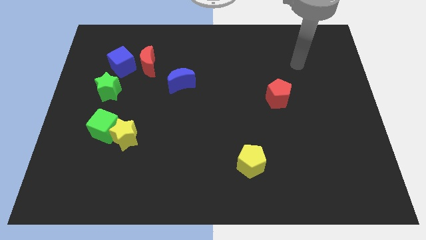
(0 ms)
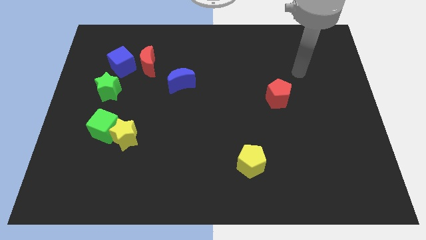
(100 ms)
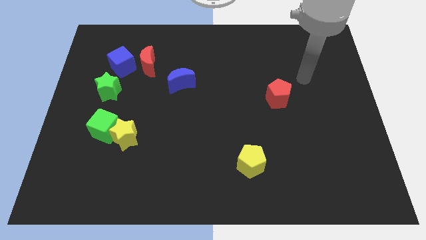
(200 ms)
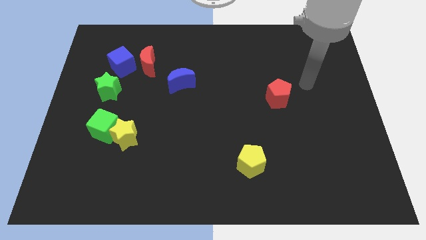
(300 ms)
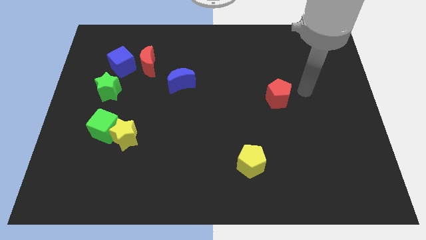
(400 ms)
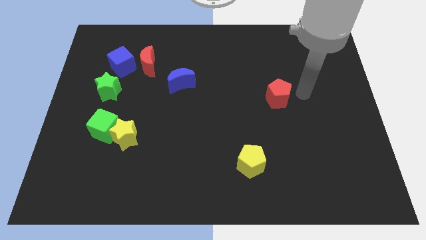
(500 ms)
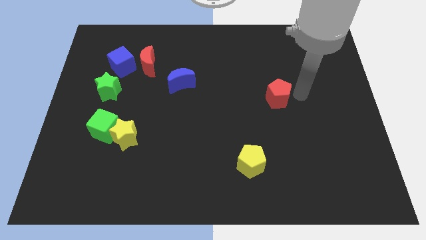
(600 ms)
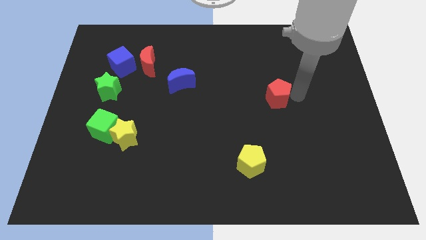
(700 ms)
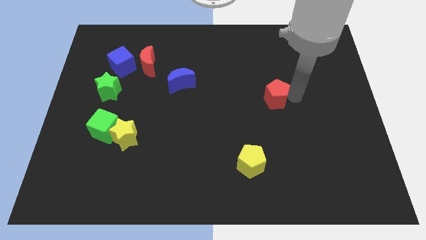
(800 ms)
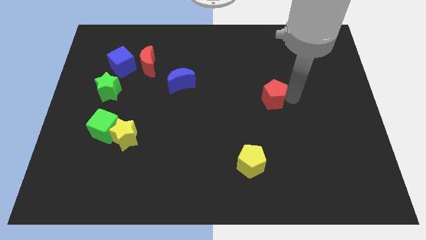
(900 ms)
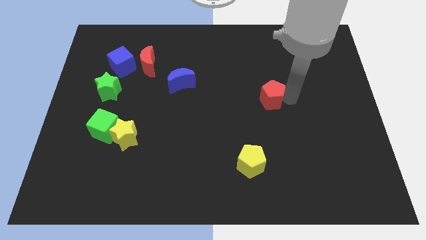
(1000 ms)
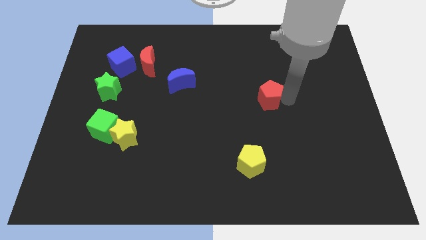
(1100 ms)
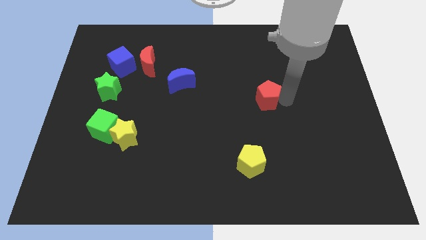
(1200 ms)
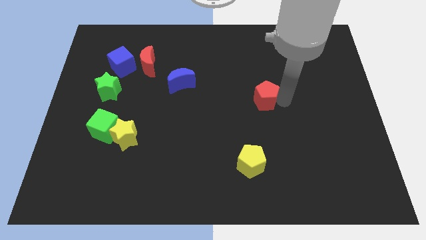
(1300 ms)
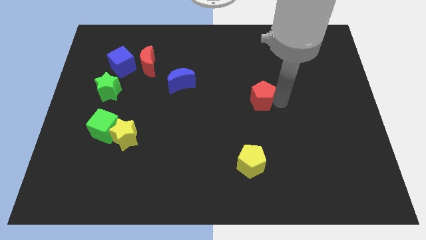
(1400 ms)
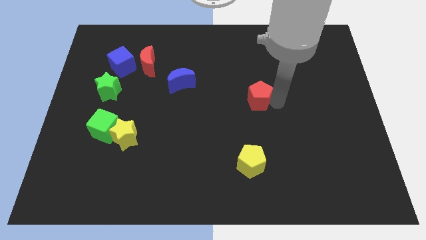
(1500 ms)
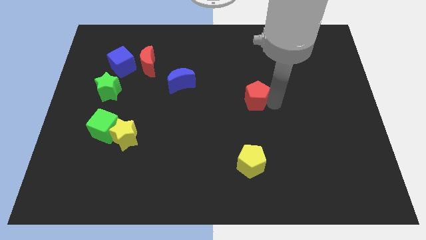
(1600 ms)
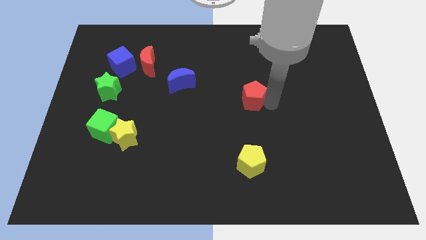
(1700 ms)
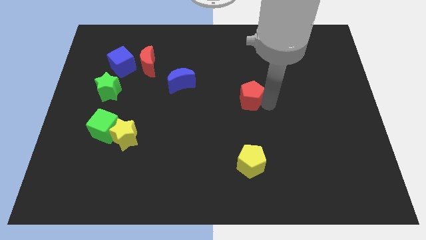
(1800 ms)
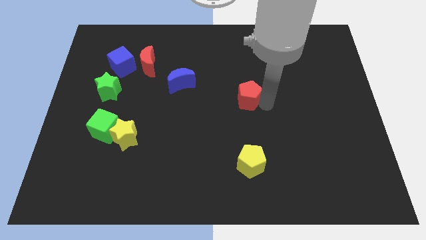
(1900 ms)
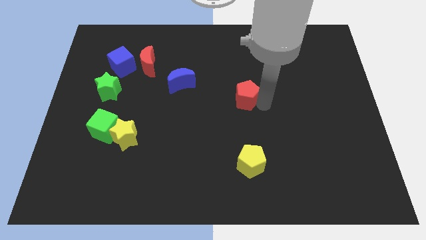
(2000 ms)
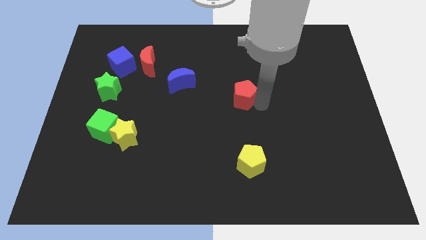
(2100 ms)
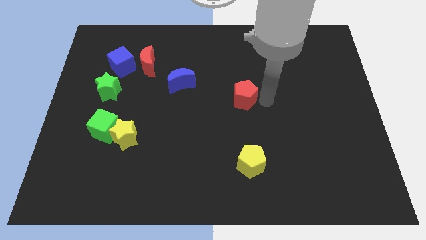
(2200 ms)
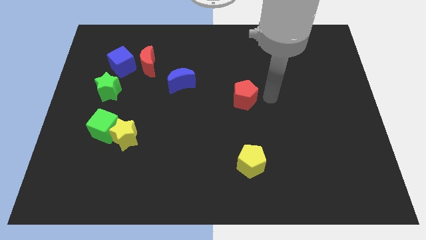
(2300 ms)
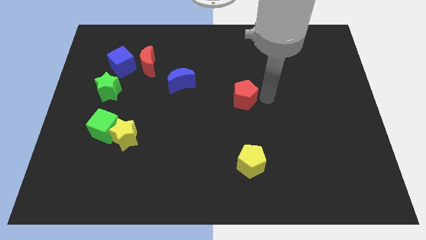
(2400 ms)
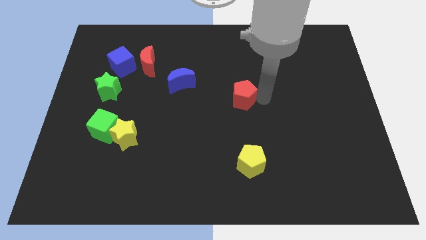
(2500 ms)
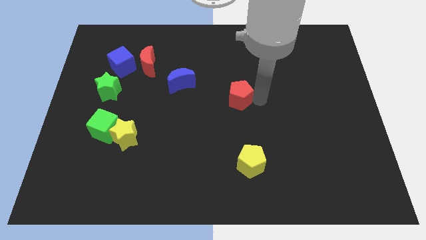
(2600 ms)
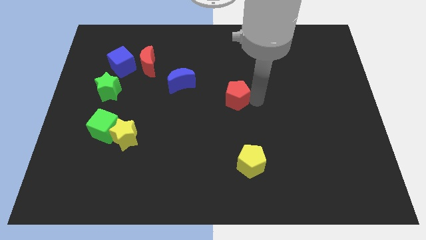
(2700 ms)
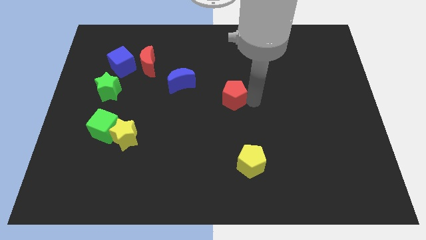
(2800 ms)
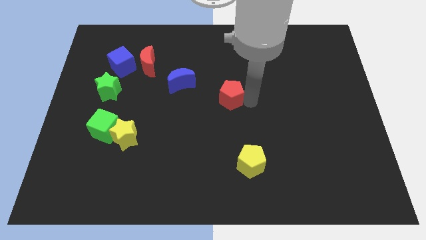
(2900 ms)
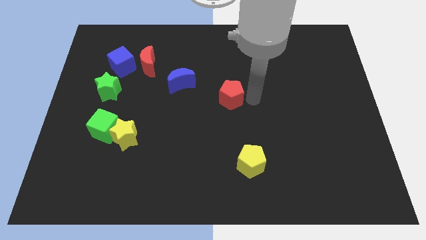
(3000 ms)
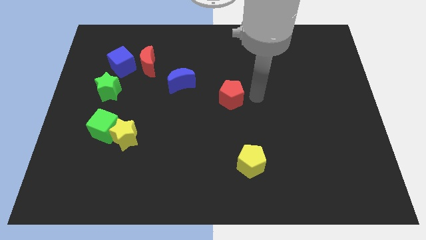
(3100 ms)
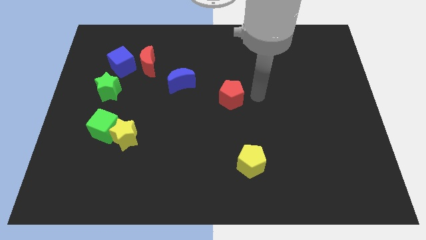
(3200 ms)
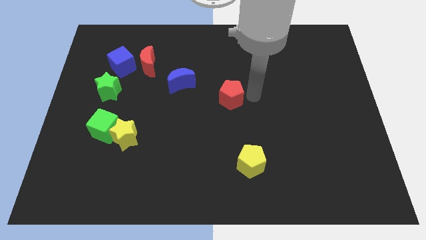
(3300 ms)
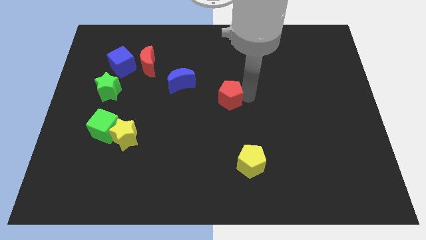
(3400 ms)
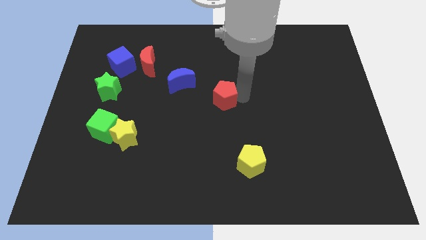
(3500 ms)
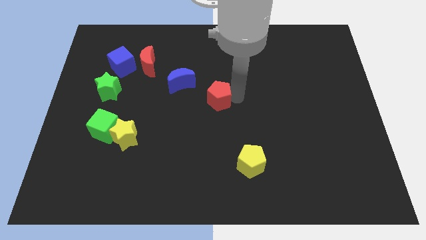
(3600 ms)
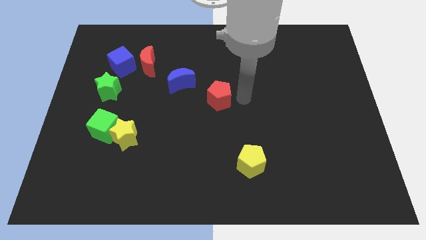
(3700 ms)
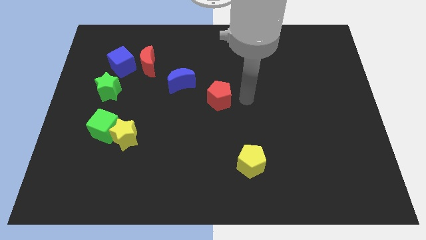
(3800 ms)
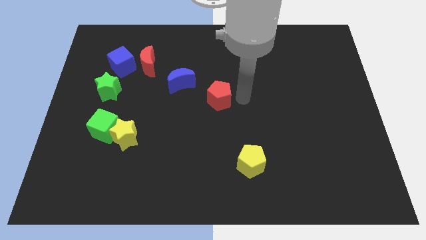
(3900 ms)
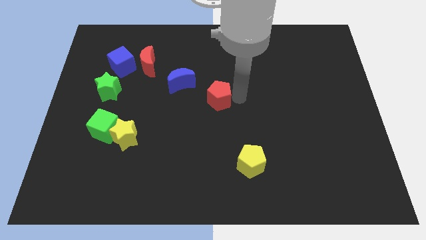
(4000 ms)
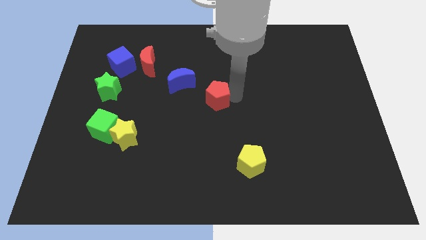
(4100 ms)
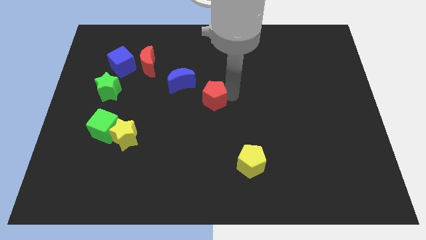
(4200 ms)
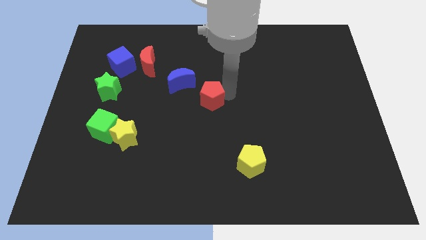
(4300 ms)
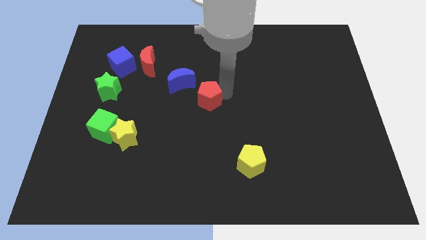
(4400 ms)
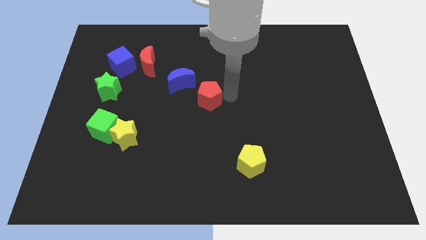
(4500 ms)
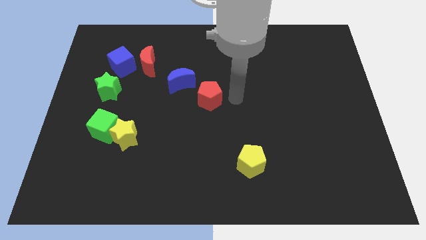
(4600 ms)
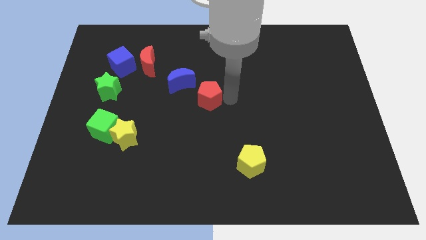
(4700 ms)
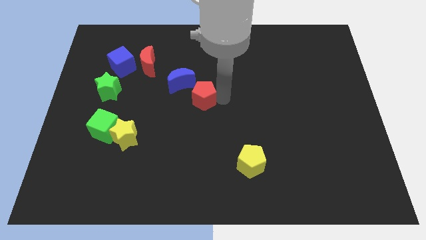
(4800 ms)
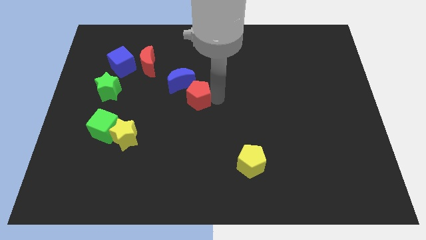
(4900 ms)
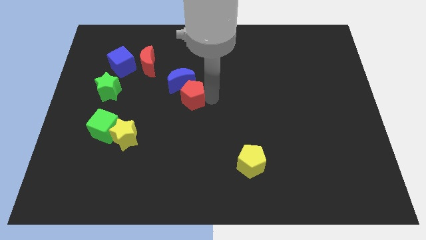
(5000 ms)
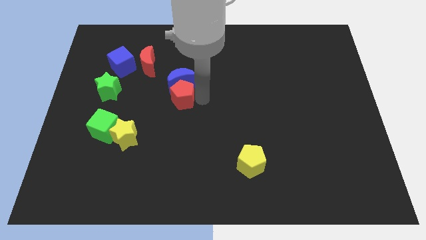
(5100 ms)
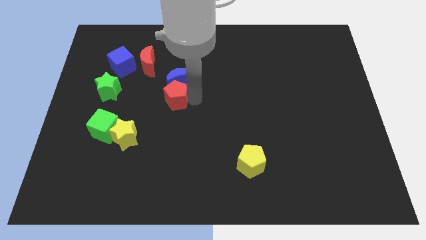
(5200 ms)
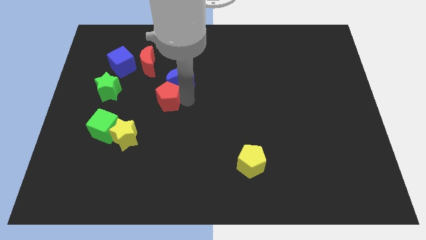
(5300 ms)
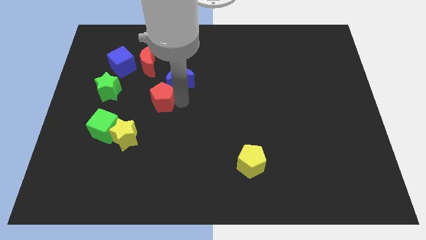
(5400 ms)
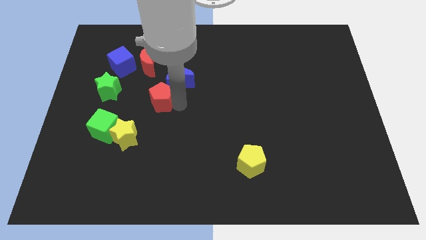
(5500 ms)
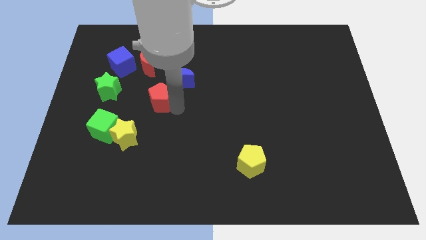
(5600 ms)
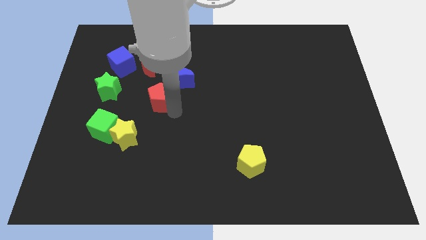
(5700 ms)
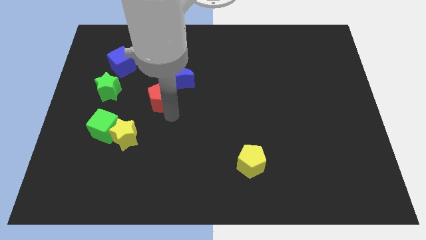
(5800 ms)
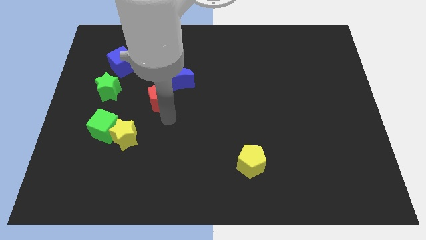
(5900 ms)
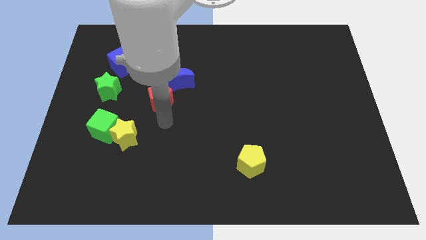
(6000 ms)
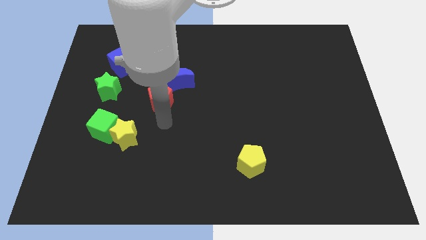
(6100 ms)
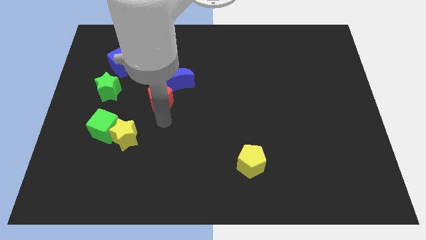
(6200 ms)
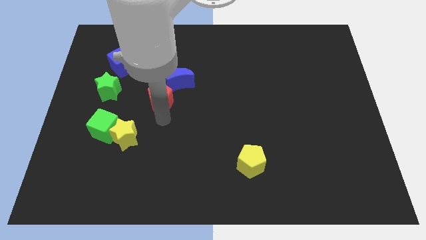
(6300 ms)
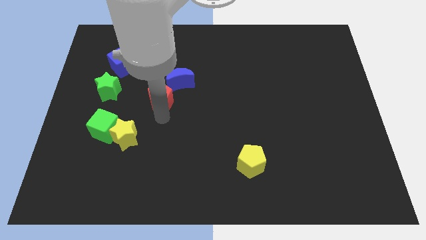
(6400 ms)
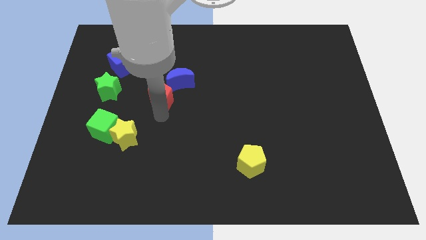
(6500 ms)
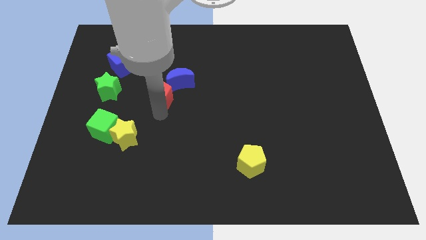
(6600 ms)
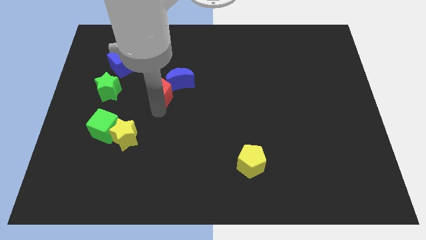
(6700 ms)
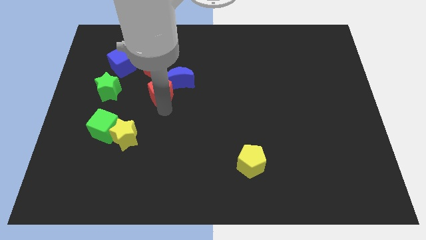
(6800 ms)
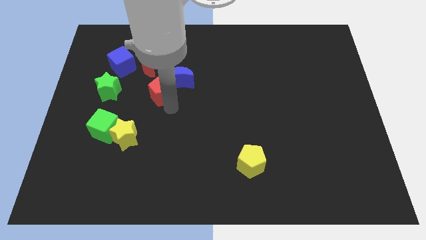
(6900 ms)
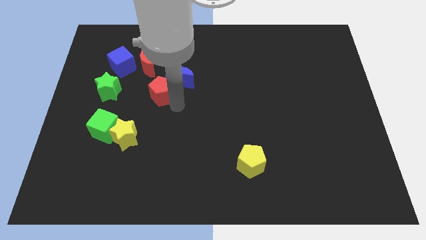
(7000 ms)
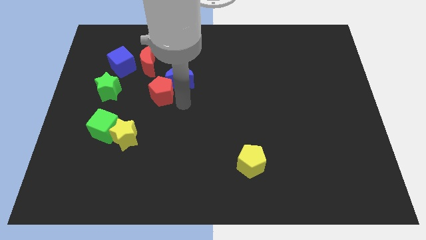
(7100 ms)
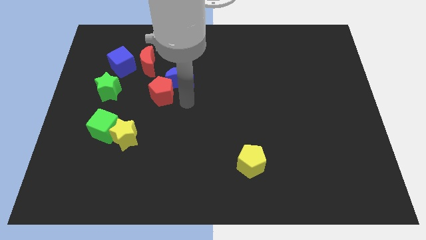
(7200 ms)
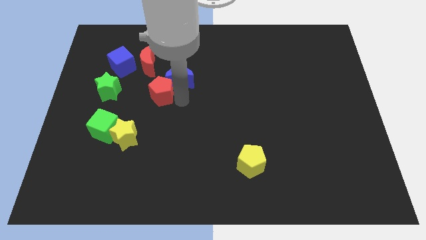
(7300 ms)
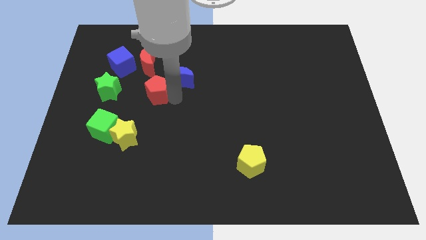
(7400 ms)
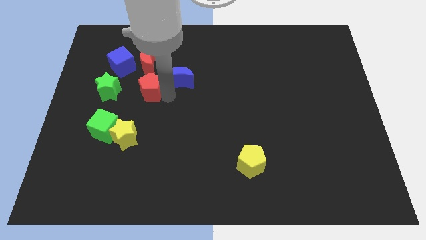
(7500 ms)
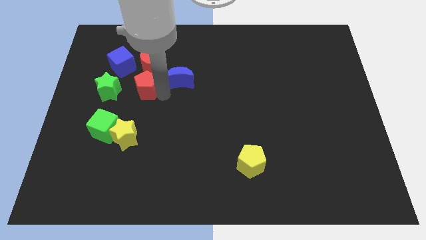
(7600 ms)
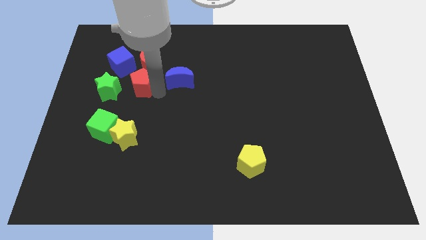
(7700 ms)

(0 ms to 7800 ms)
move the red pentagon to the bottom left of the red moon
